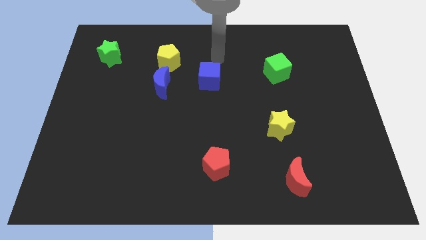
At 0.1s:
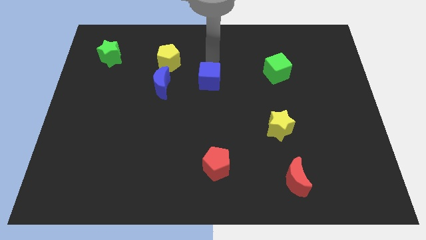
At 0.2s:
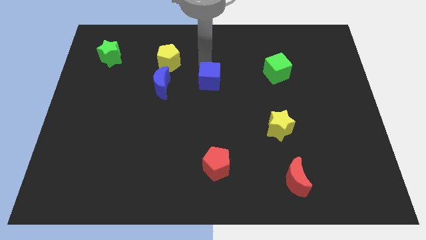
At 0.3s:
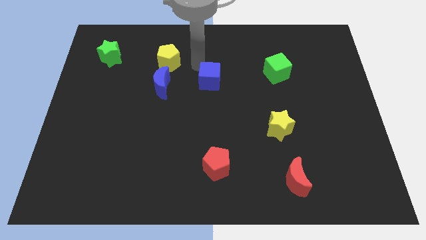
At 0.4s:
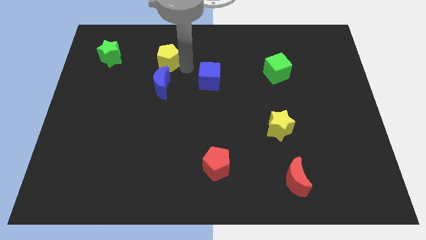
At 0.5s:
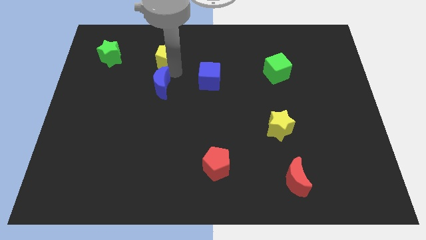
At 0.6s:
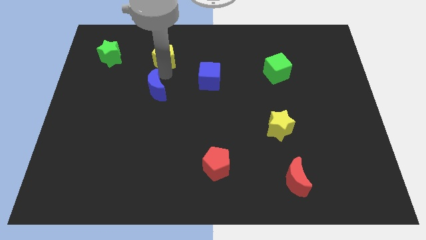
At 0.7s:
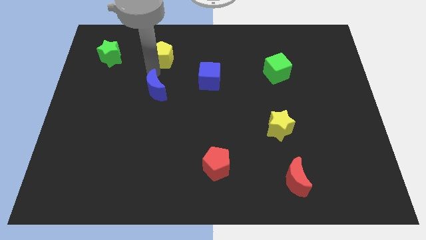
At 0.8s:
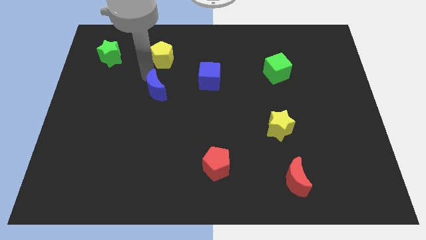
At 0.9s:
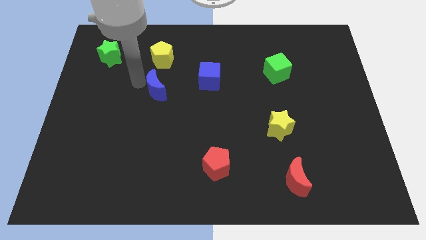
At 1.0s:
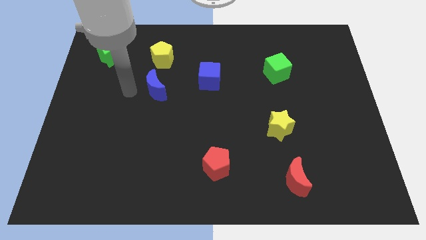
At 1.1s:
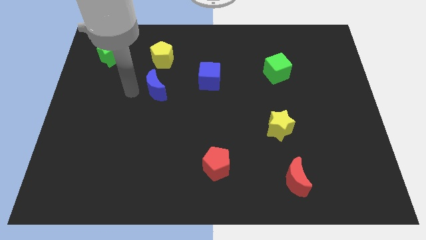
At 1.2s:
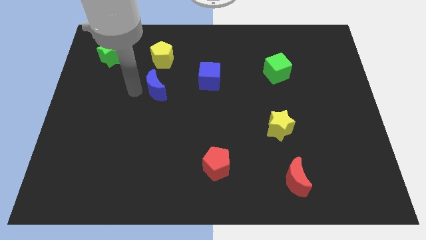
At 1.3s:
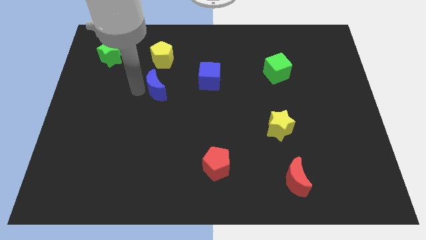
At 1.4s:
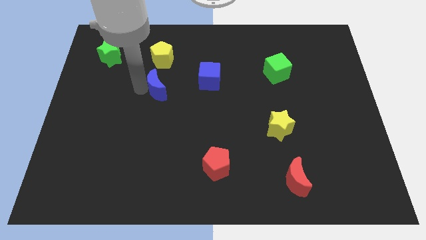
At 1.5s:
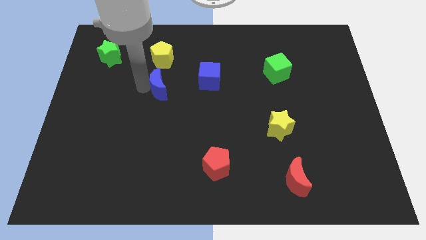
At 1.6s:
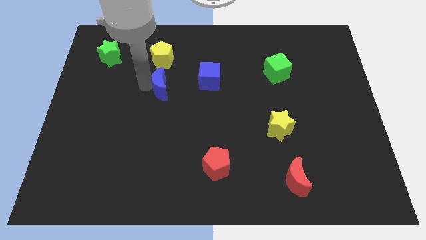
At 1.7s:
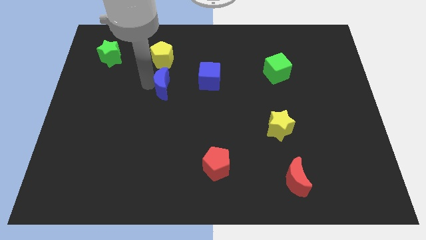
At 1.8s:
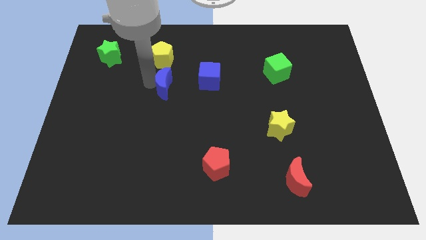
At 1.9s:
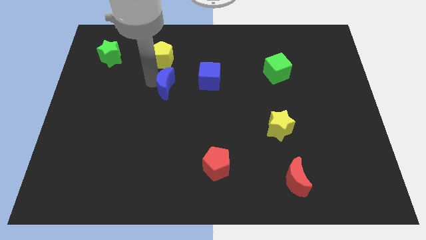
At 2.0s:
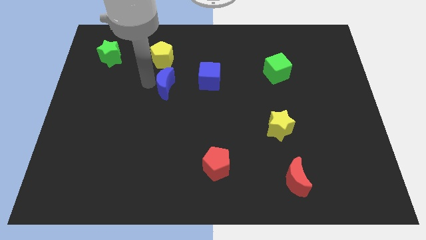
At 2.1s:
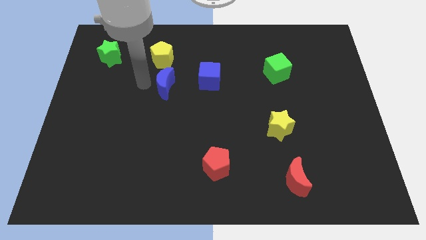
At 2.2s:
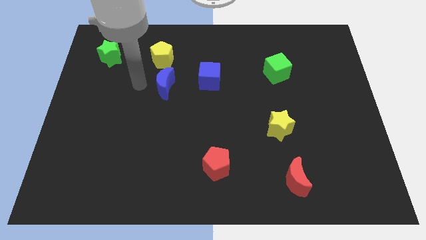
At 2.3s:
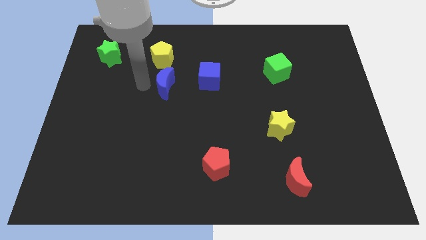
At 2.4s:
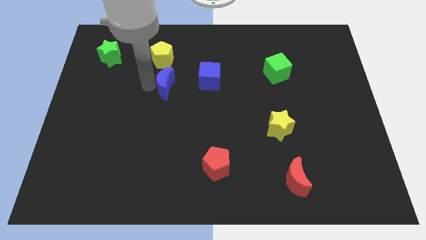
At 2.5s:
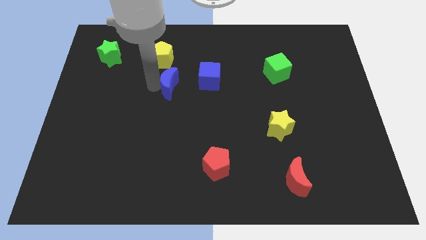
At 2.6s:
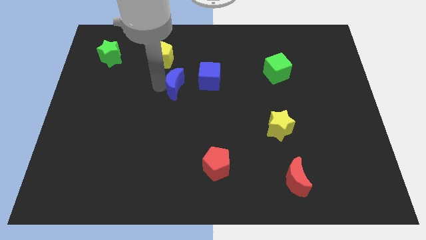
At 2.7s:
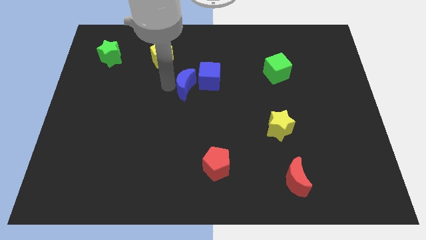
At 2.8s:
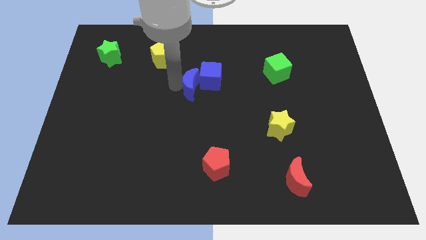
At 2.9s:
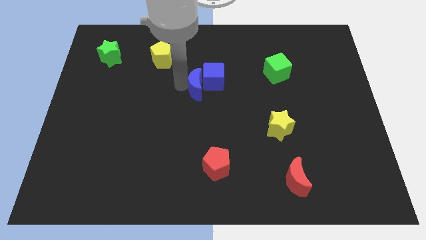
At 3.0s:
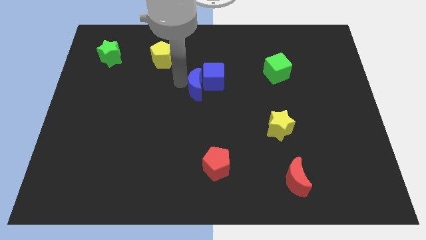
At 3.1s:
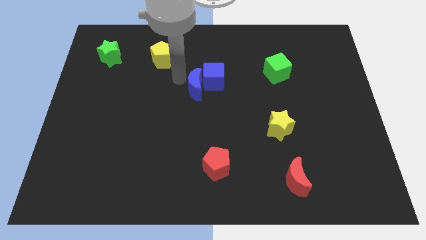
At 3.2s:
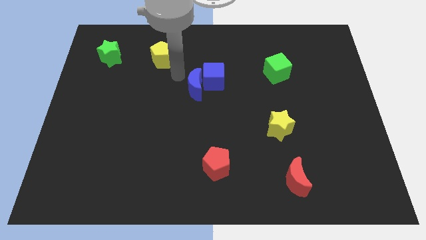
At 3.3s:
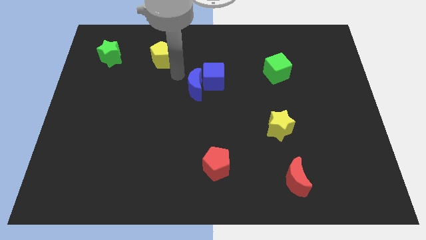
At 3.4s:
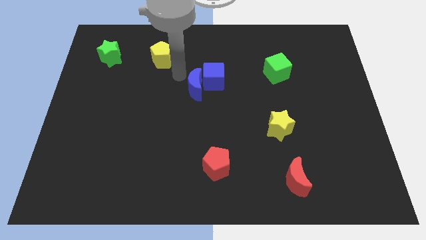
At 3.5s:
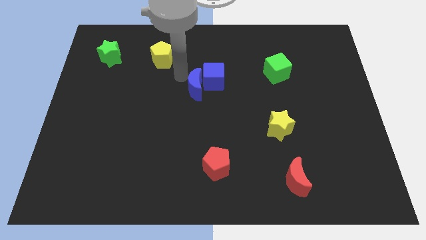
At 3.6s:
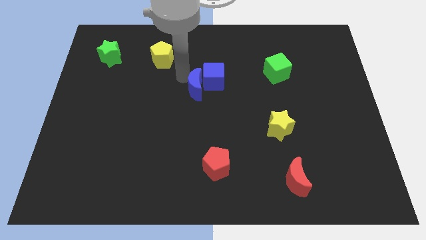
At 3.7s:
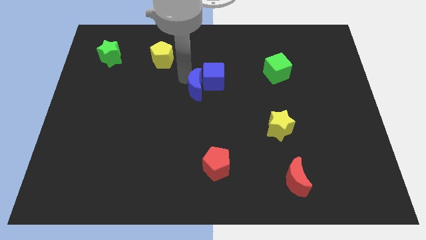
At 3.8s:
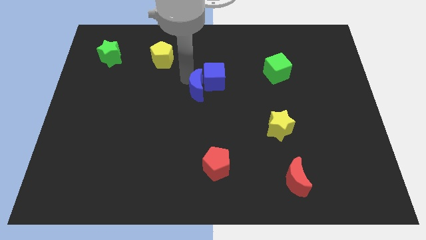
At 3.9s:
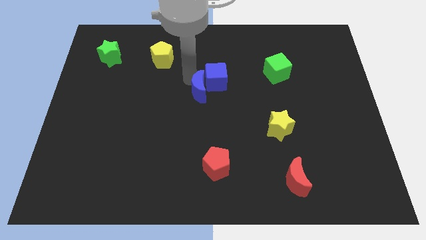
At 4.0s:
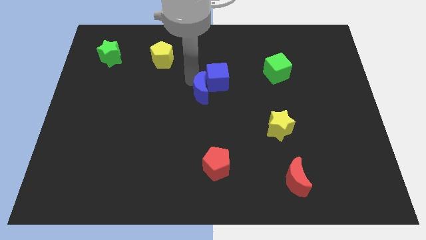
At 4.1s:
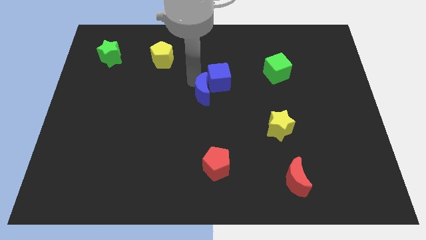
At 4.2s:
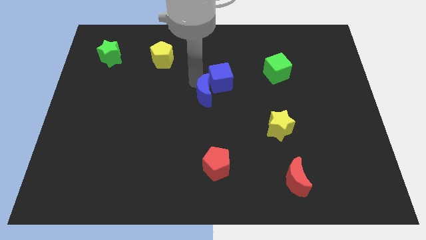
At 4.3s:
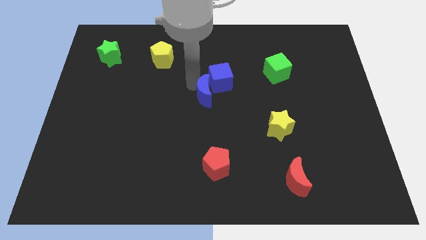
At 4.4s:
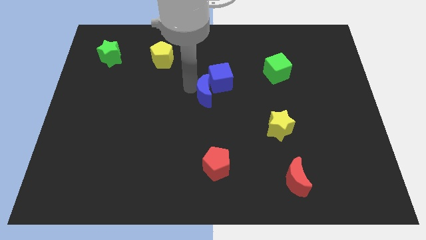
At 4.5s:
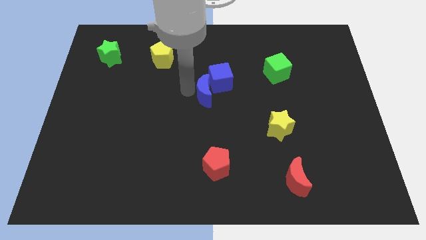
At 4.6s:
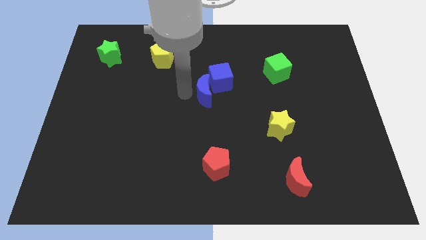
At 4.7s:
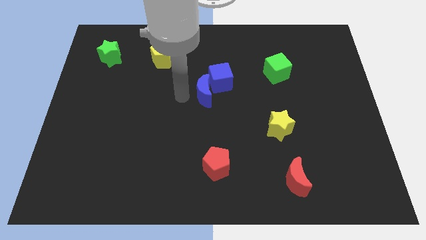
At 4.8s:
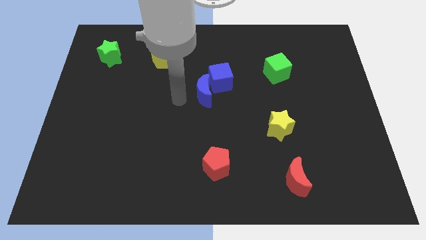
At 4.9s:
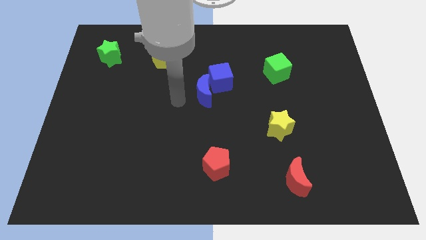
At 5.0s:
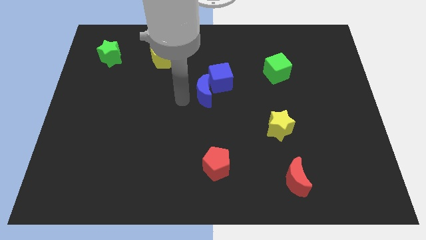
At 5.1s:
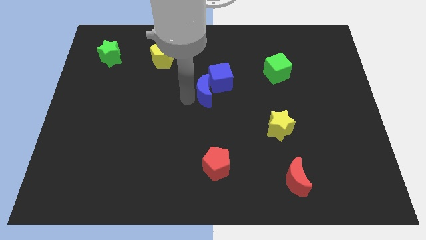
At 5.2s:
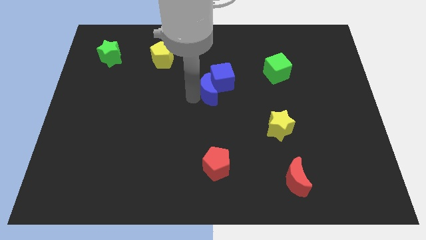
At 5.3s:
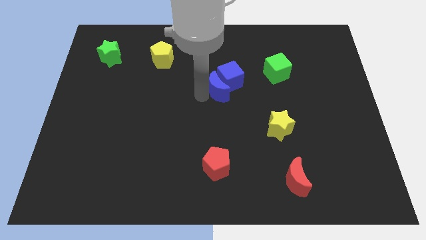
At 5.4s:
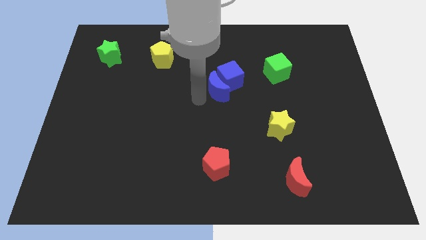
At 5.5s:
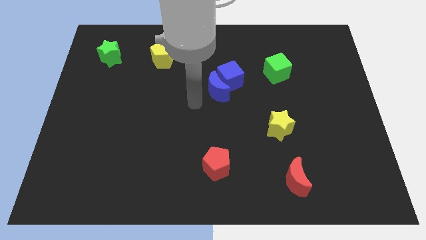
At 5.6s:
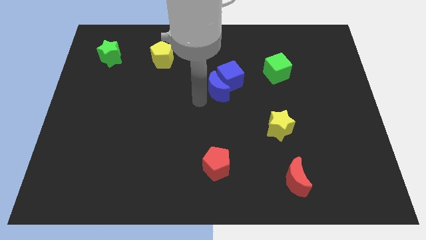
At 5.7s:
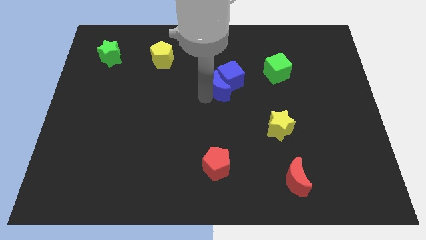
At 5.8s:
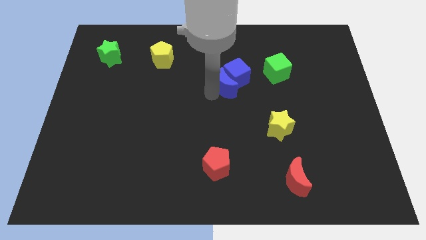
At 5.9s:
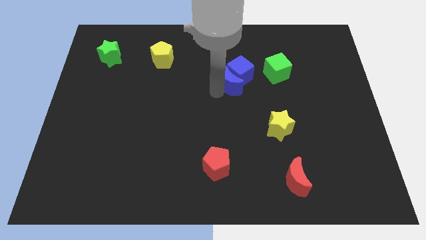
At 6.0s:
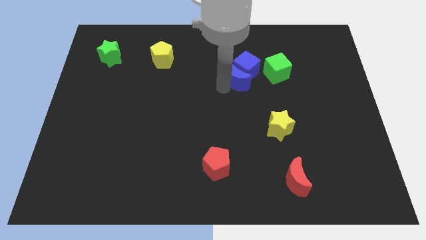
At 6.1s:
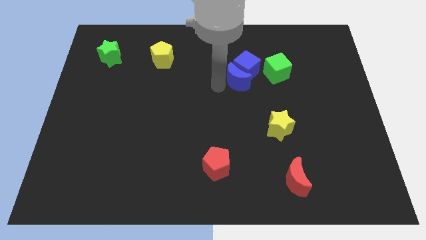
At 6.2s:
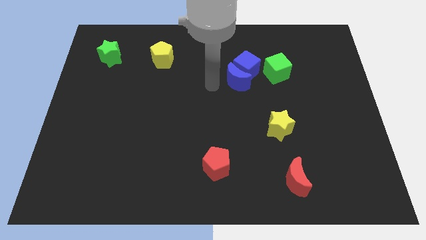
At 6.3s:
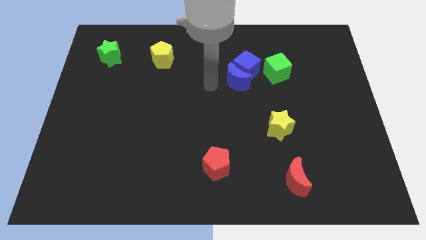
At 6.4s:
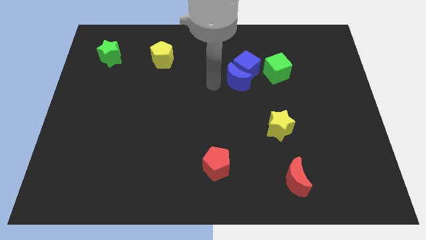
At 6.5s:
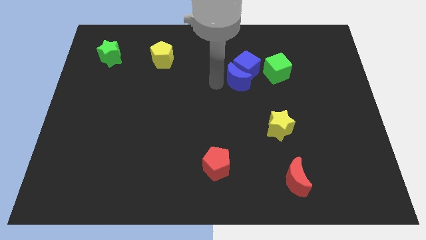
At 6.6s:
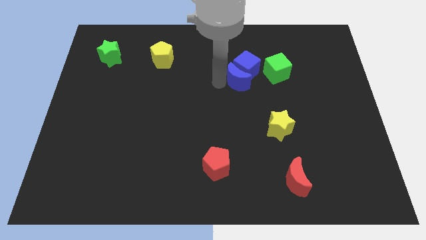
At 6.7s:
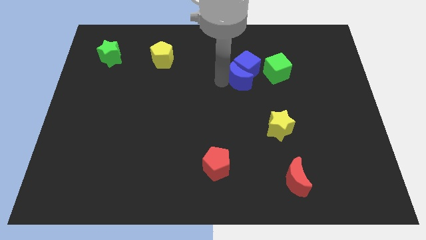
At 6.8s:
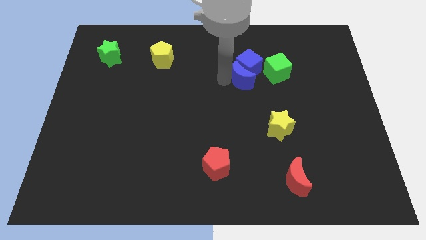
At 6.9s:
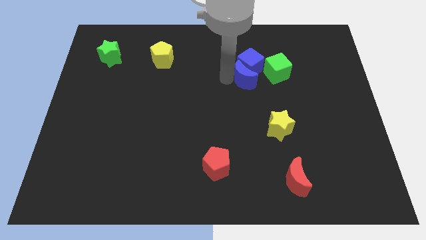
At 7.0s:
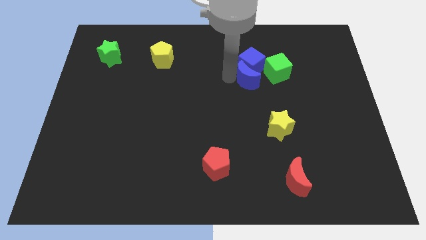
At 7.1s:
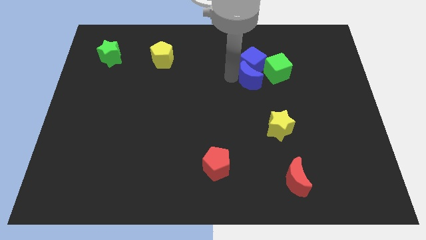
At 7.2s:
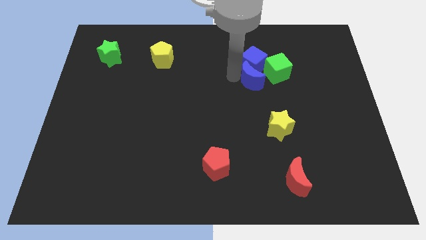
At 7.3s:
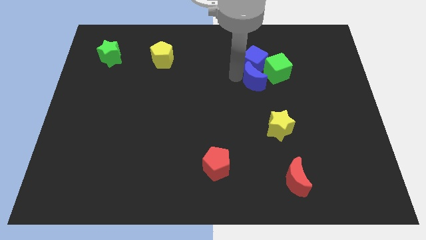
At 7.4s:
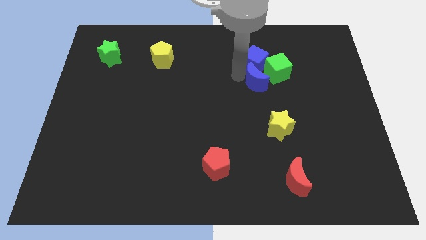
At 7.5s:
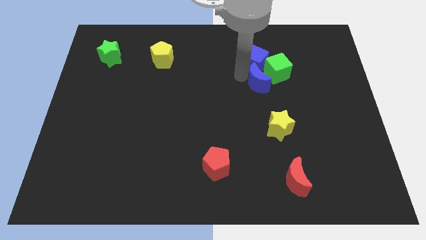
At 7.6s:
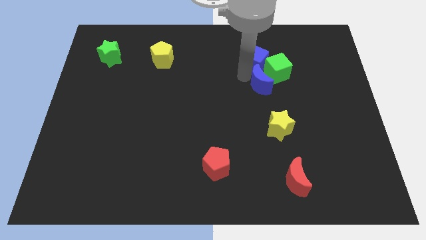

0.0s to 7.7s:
move the blue moon next to the green cube
